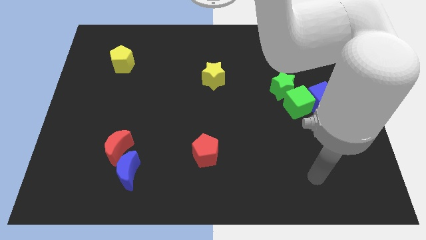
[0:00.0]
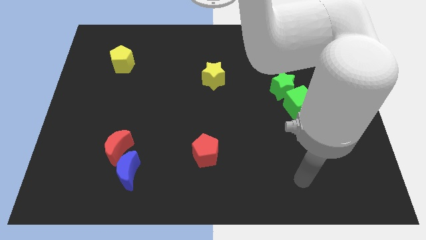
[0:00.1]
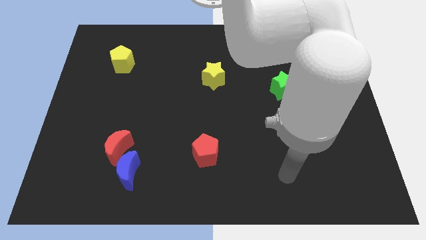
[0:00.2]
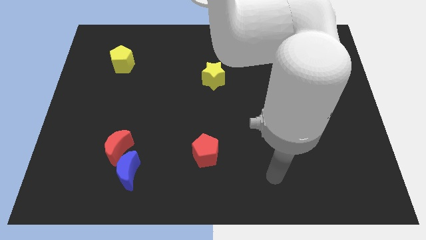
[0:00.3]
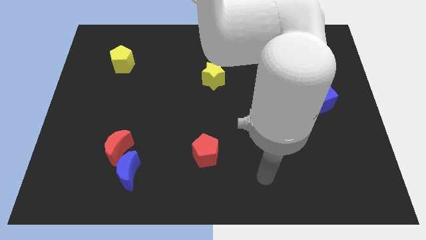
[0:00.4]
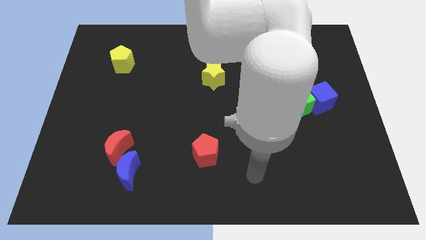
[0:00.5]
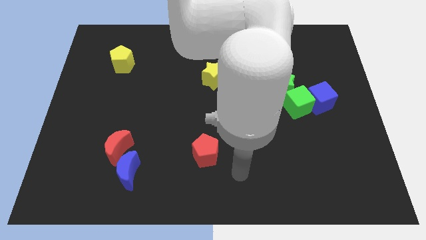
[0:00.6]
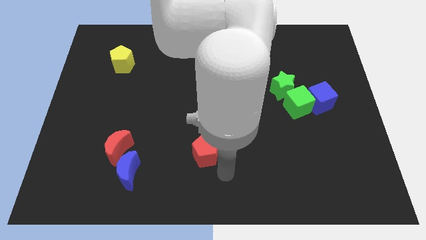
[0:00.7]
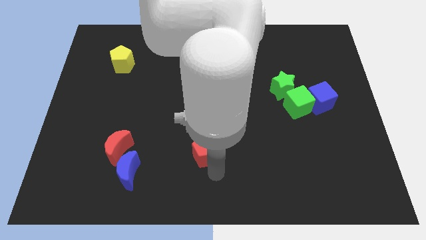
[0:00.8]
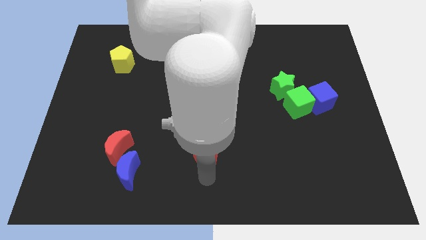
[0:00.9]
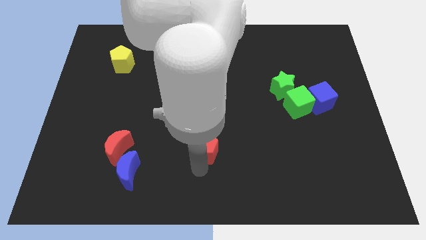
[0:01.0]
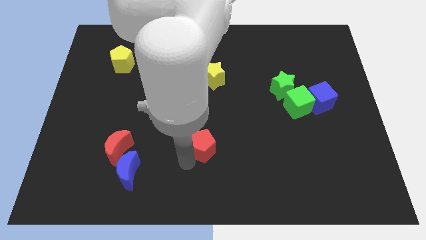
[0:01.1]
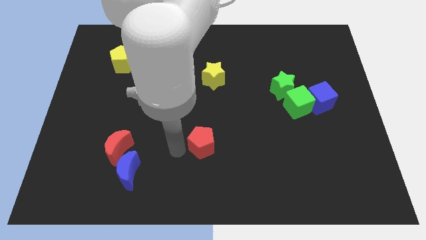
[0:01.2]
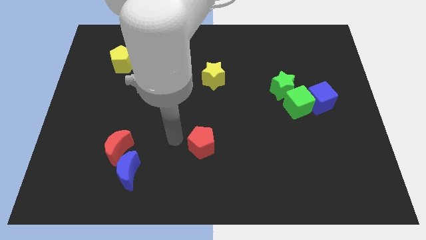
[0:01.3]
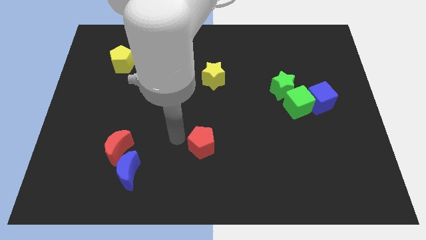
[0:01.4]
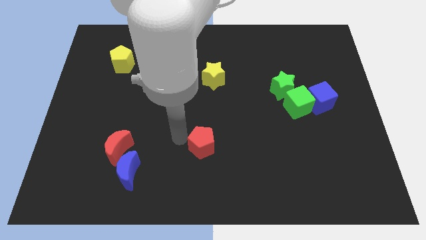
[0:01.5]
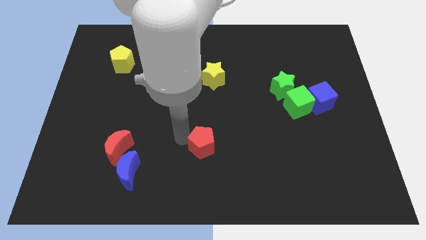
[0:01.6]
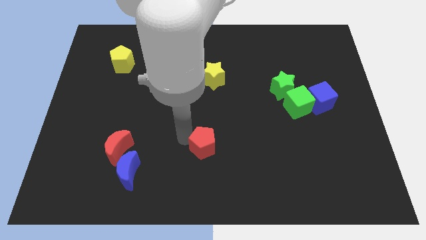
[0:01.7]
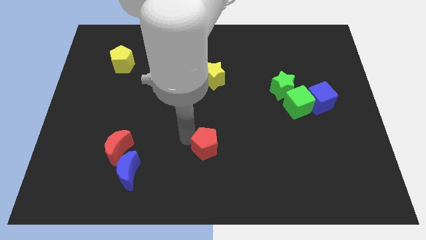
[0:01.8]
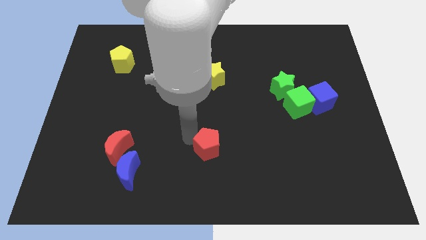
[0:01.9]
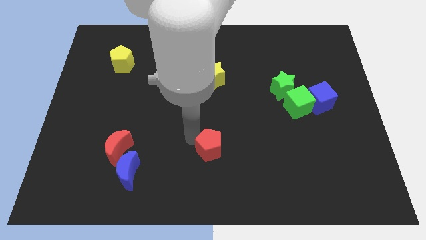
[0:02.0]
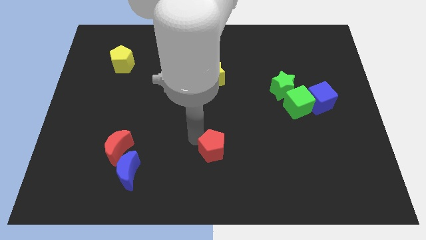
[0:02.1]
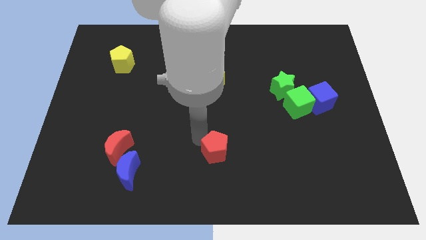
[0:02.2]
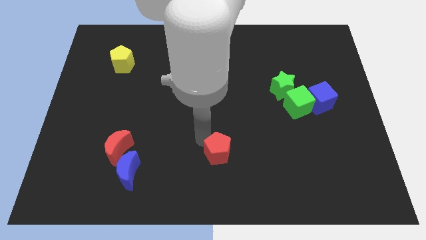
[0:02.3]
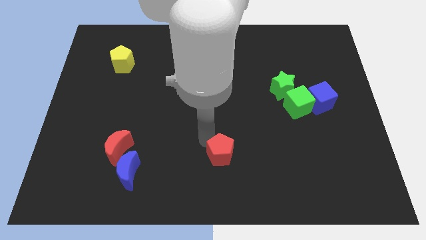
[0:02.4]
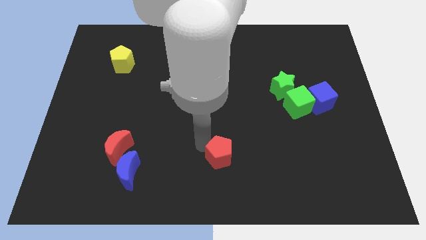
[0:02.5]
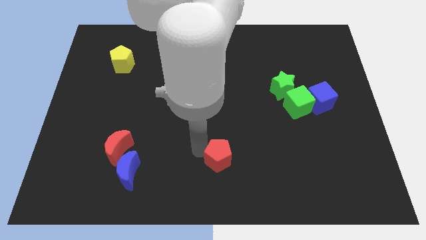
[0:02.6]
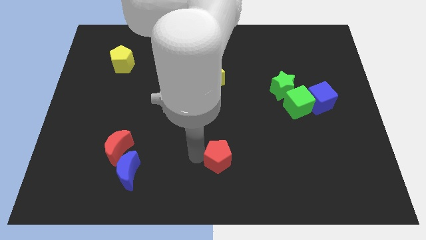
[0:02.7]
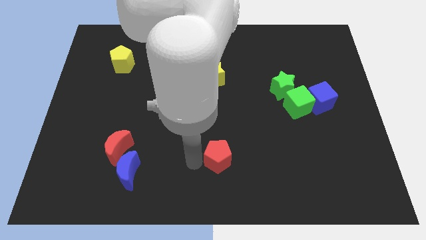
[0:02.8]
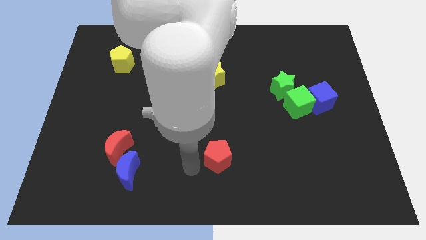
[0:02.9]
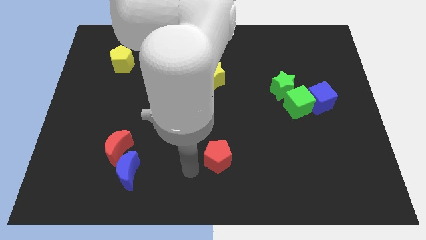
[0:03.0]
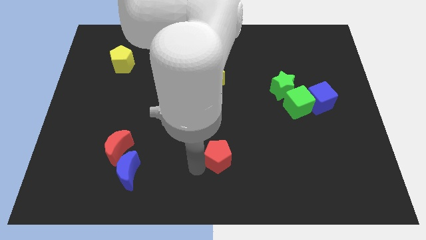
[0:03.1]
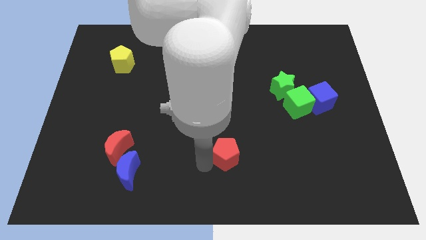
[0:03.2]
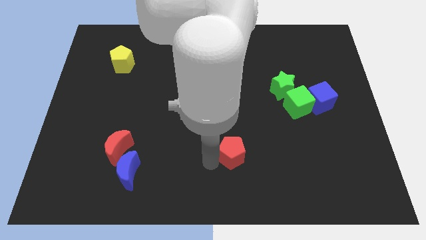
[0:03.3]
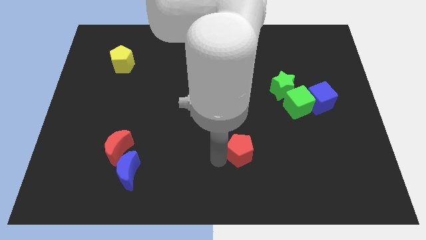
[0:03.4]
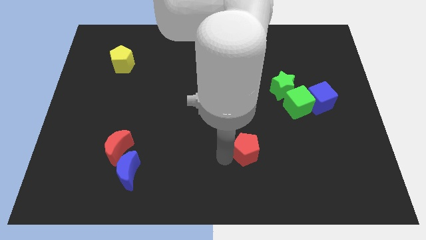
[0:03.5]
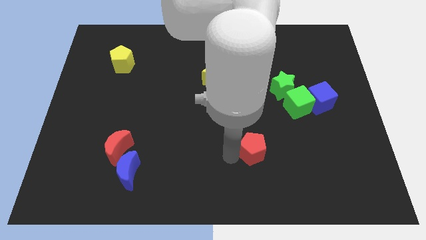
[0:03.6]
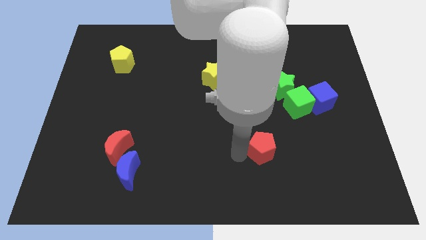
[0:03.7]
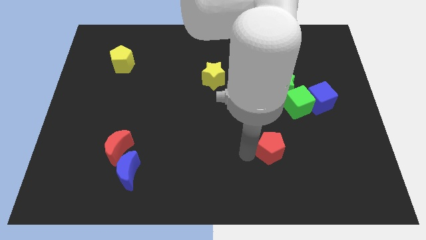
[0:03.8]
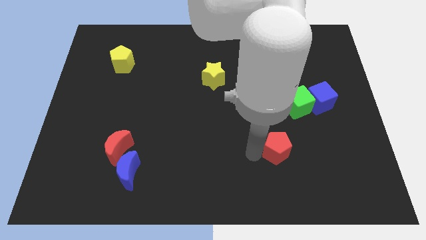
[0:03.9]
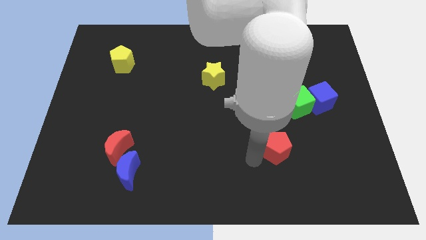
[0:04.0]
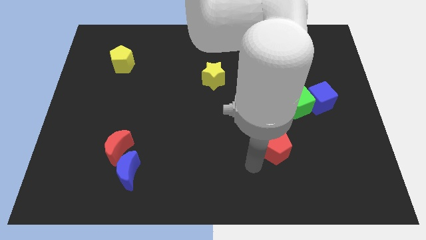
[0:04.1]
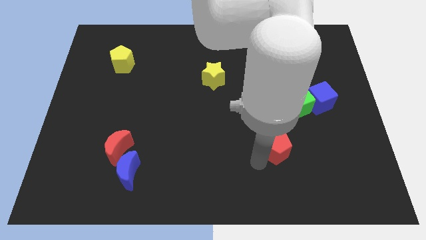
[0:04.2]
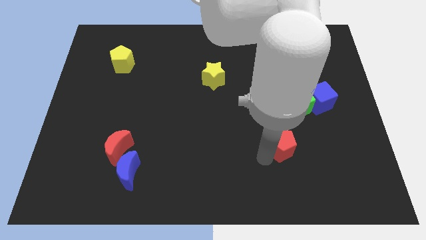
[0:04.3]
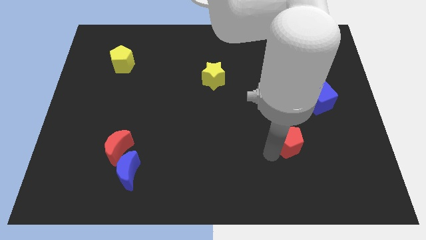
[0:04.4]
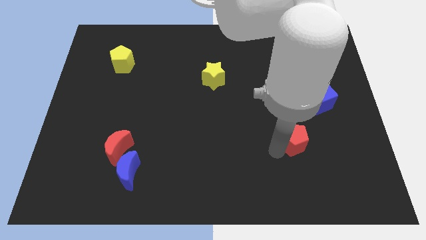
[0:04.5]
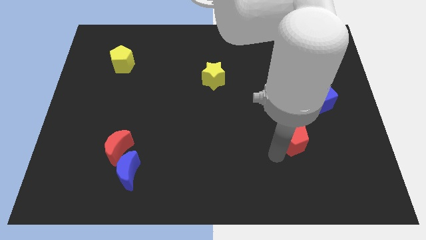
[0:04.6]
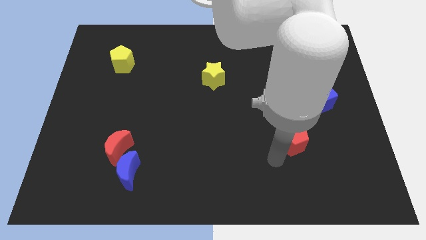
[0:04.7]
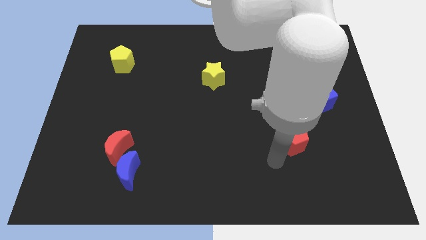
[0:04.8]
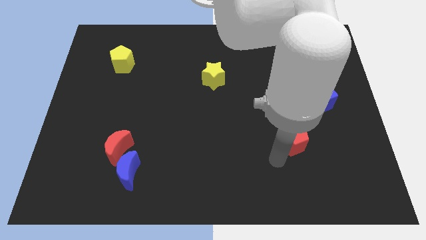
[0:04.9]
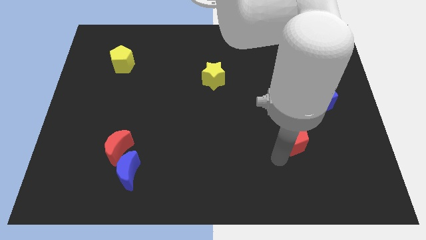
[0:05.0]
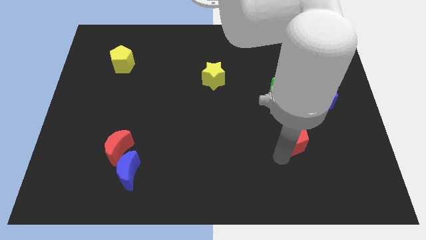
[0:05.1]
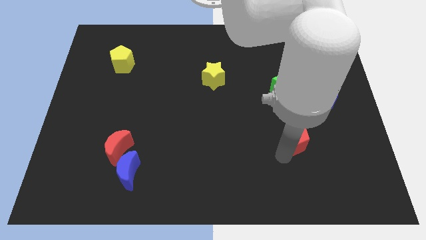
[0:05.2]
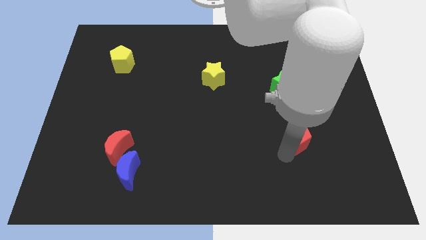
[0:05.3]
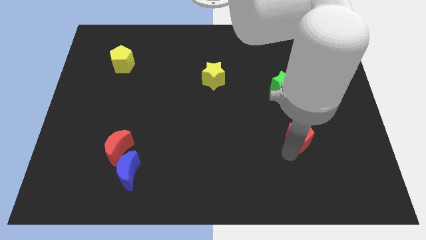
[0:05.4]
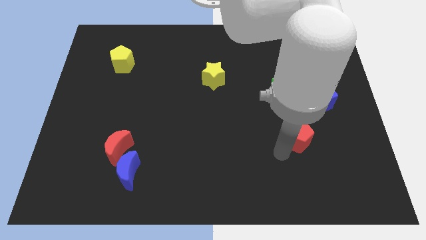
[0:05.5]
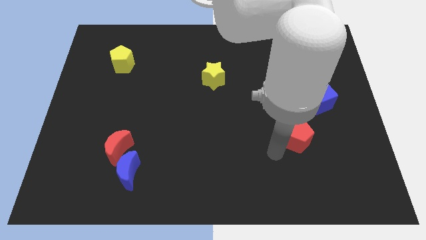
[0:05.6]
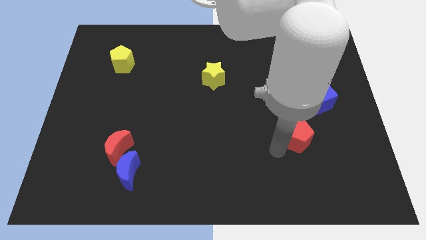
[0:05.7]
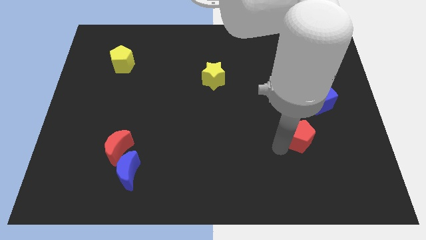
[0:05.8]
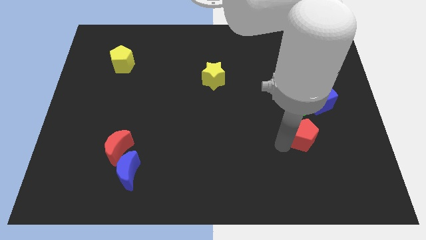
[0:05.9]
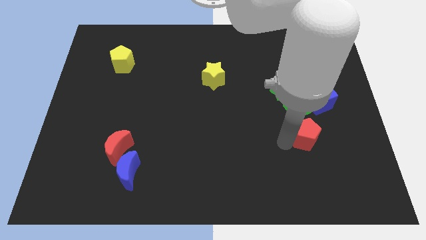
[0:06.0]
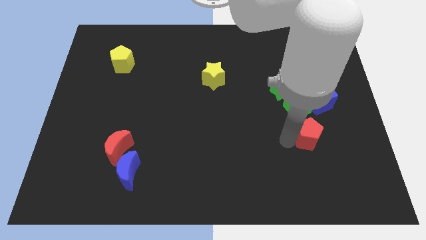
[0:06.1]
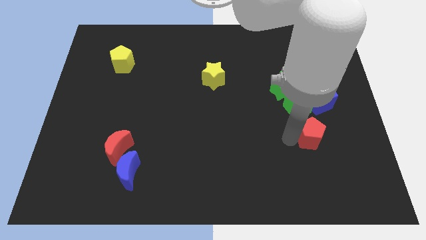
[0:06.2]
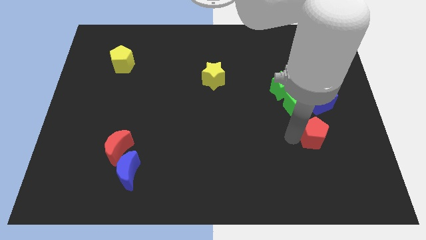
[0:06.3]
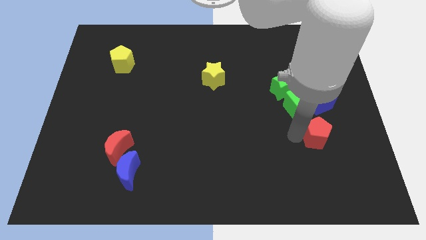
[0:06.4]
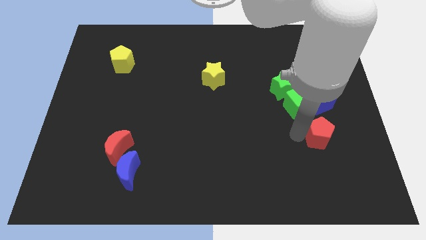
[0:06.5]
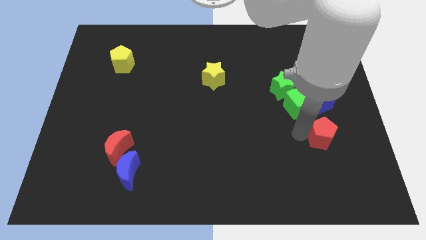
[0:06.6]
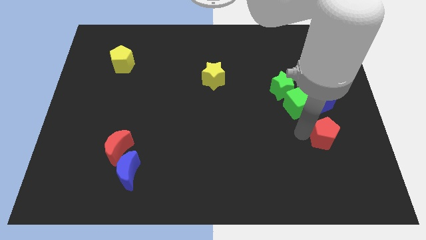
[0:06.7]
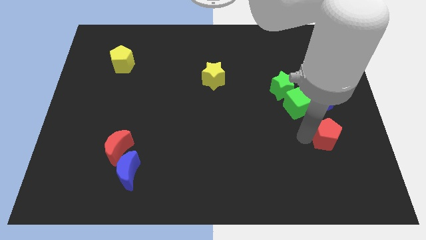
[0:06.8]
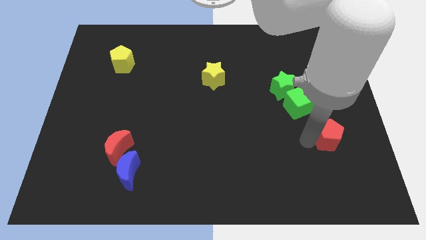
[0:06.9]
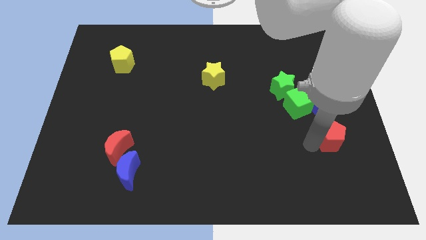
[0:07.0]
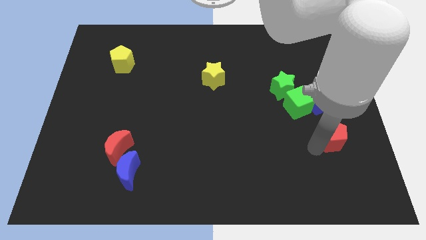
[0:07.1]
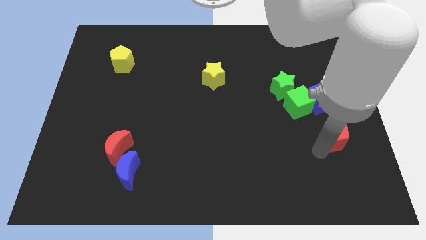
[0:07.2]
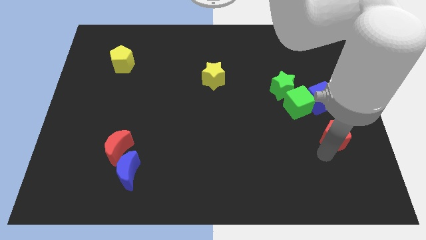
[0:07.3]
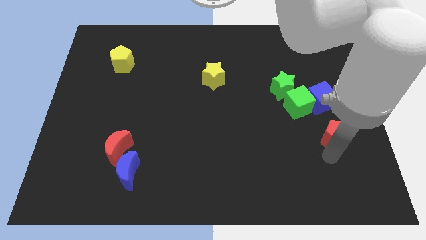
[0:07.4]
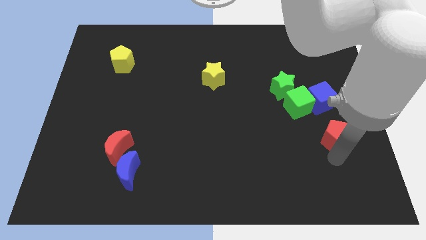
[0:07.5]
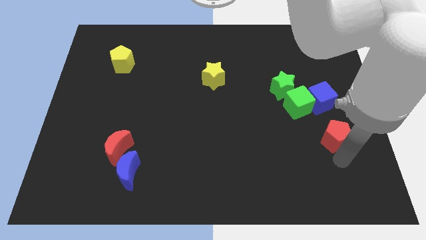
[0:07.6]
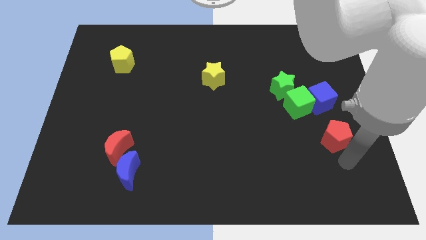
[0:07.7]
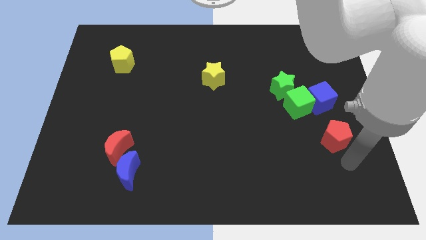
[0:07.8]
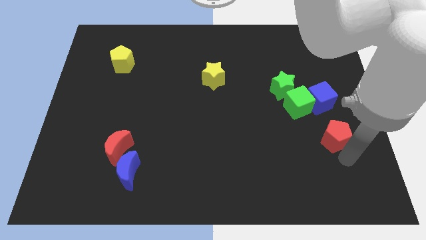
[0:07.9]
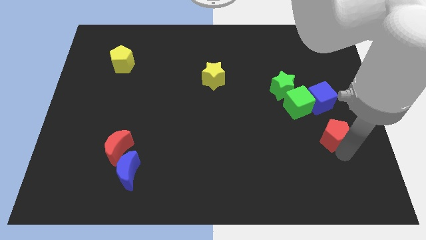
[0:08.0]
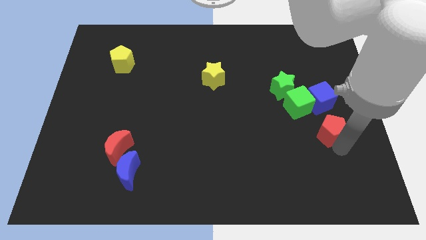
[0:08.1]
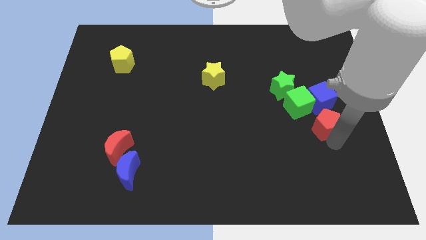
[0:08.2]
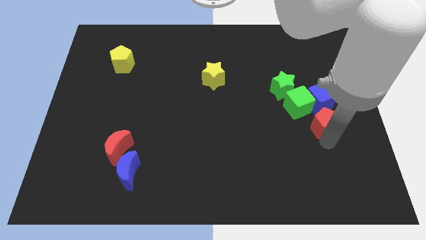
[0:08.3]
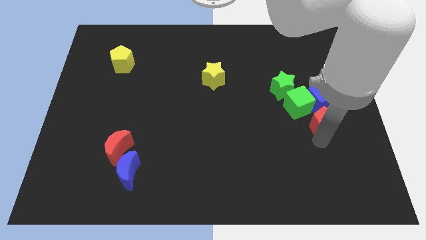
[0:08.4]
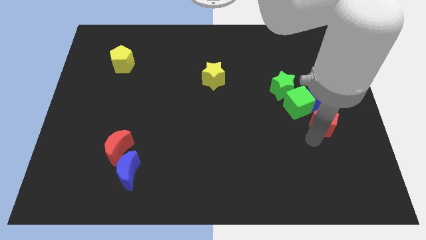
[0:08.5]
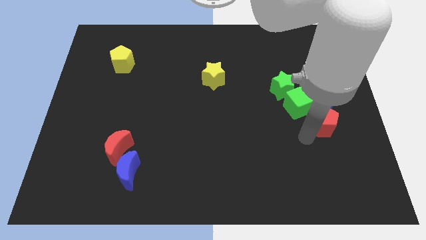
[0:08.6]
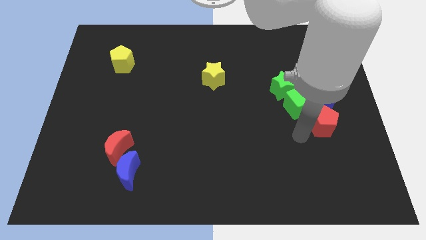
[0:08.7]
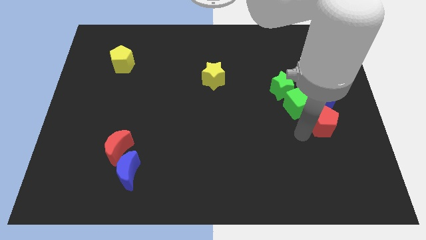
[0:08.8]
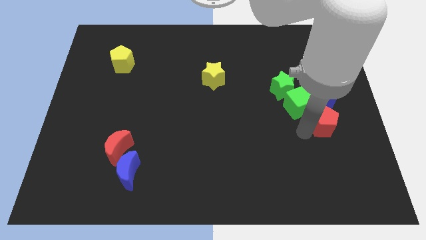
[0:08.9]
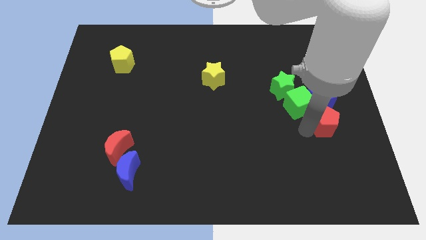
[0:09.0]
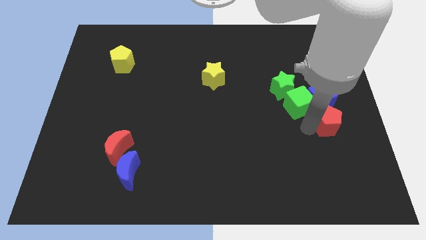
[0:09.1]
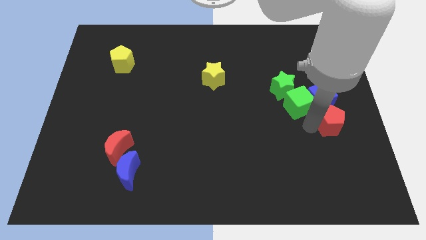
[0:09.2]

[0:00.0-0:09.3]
slide the red pentagon to the right side of the board
